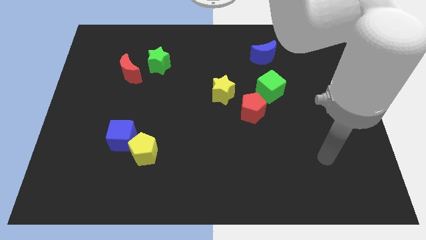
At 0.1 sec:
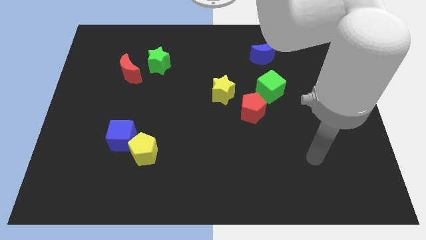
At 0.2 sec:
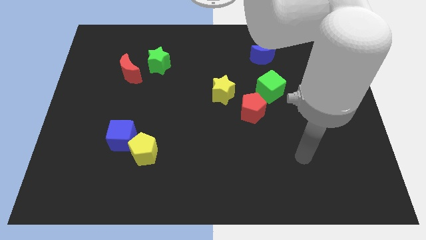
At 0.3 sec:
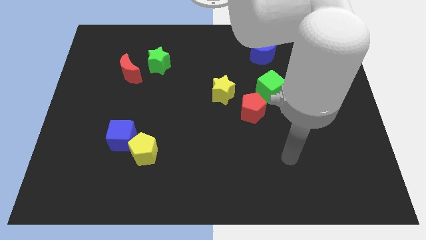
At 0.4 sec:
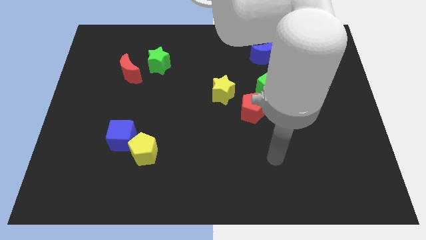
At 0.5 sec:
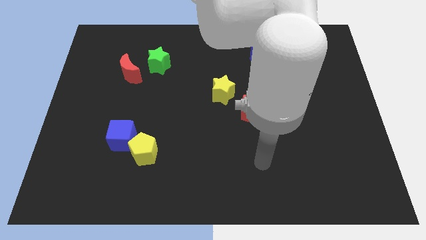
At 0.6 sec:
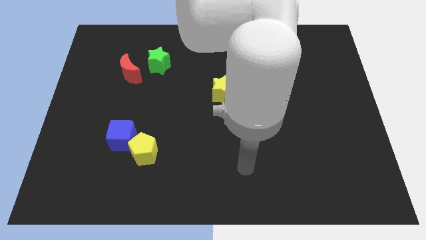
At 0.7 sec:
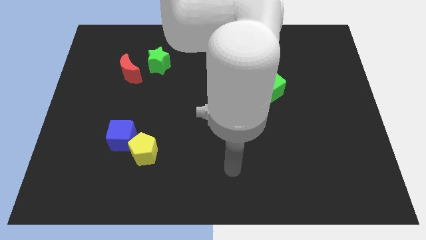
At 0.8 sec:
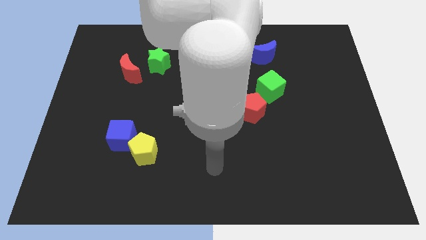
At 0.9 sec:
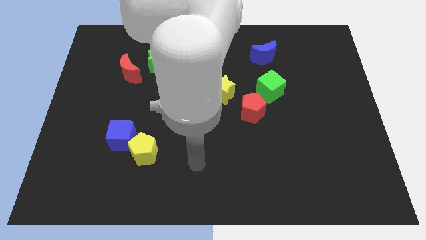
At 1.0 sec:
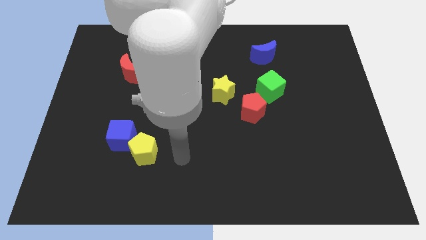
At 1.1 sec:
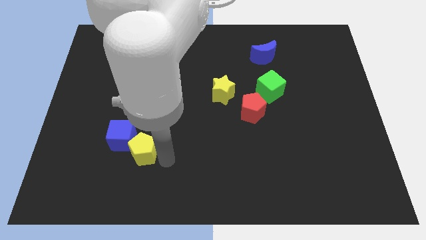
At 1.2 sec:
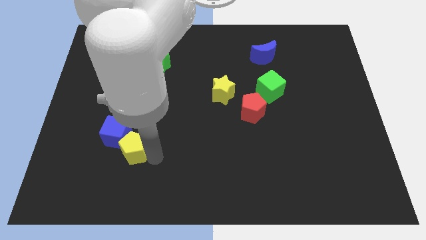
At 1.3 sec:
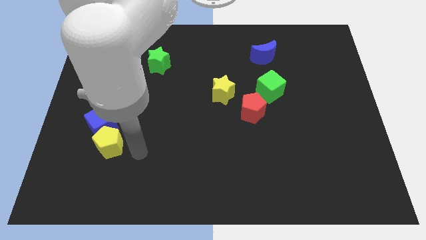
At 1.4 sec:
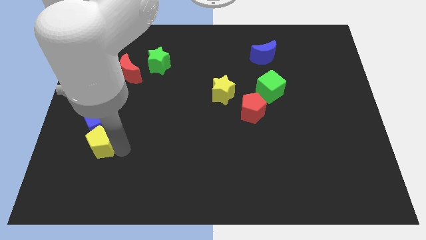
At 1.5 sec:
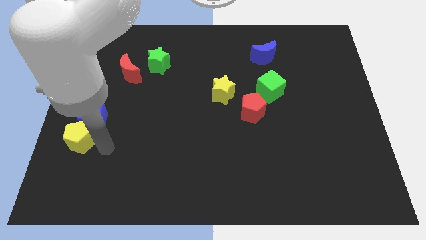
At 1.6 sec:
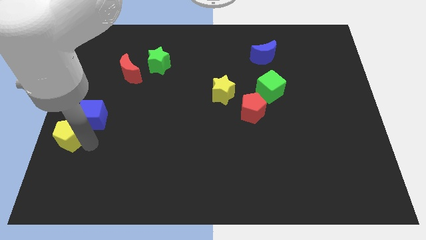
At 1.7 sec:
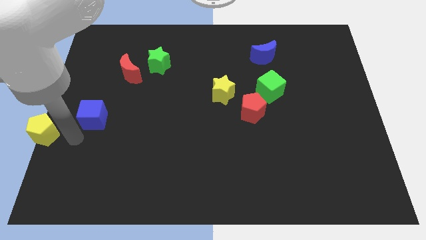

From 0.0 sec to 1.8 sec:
separate the blue cube from the yellow pentagon

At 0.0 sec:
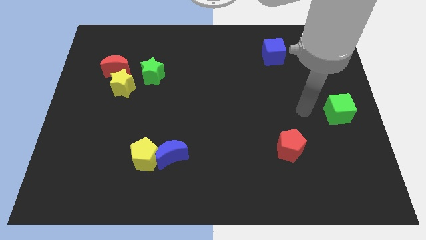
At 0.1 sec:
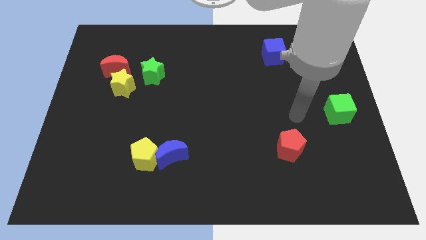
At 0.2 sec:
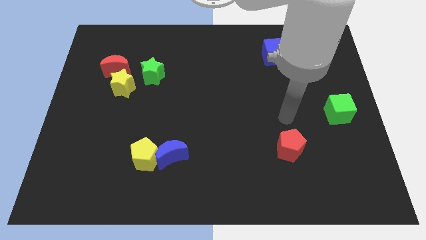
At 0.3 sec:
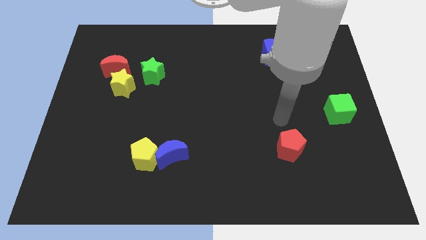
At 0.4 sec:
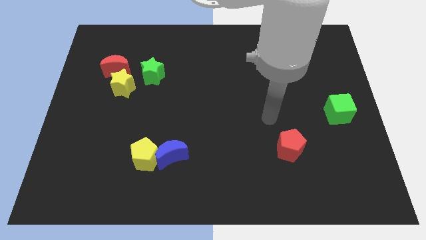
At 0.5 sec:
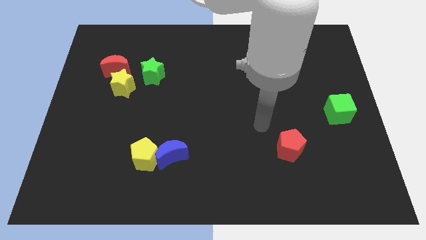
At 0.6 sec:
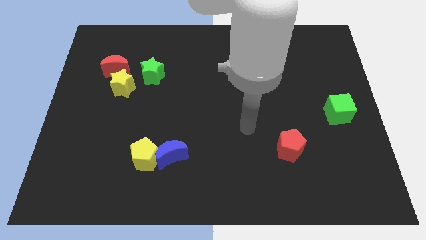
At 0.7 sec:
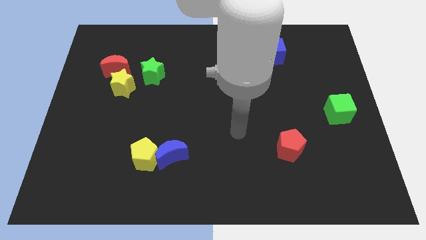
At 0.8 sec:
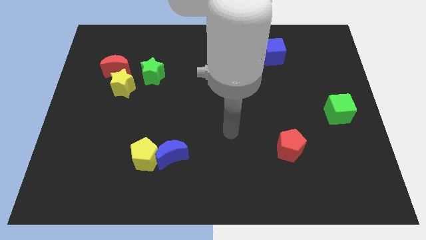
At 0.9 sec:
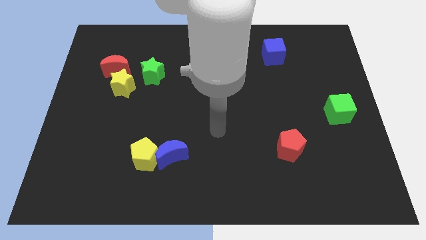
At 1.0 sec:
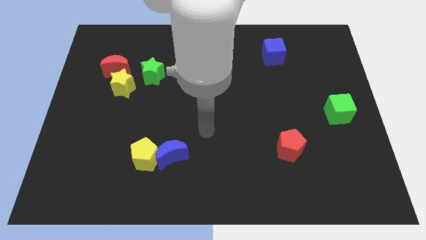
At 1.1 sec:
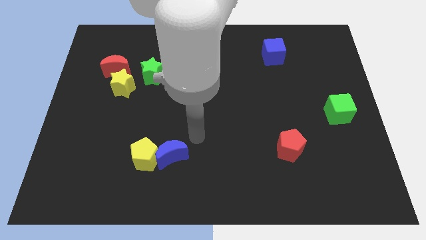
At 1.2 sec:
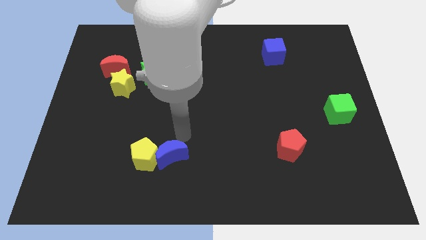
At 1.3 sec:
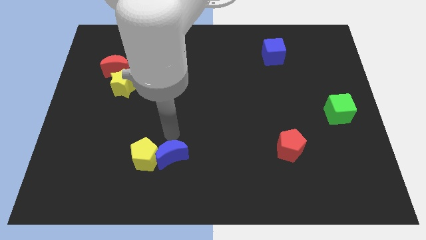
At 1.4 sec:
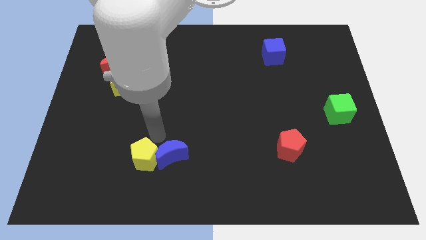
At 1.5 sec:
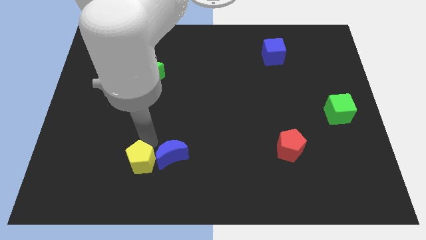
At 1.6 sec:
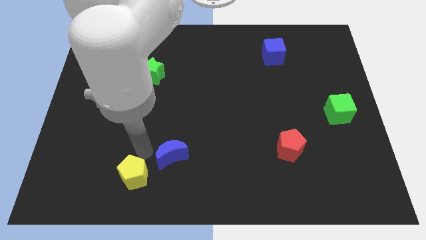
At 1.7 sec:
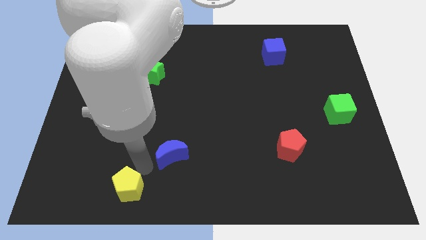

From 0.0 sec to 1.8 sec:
move the blue moon away from the yellow pentagon

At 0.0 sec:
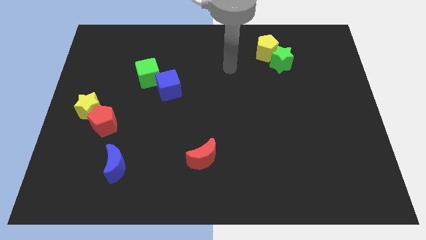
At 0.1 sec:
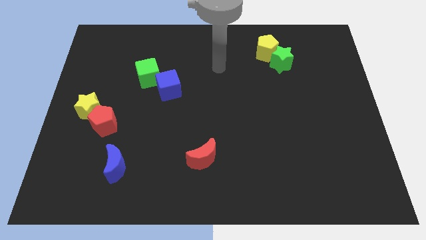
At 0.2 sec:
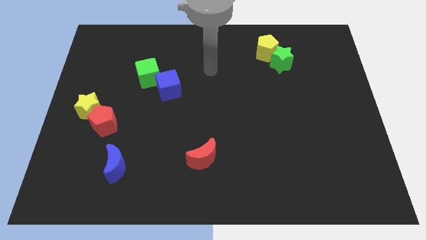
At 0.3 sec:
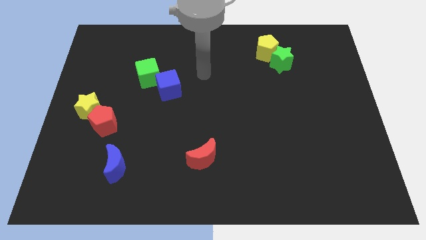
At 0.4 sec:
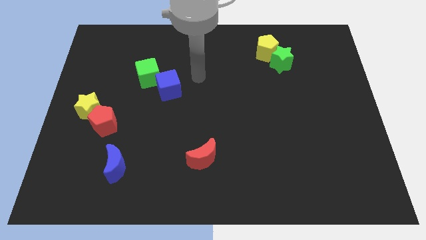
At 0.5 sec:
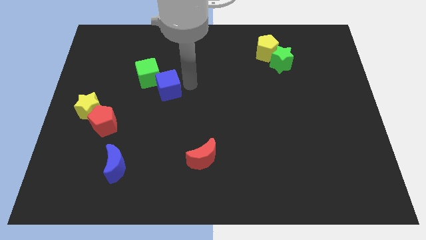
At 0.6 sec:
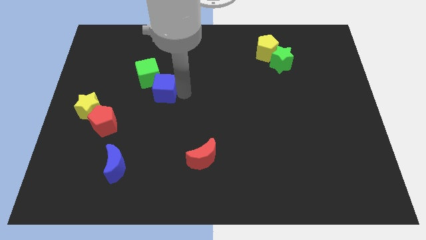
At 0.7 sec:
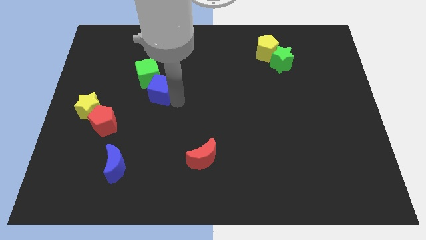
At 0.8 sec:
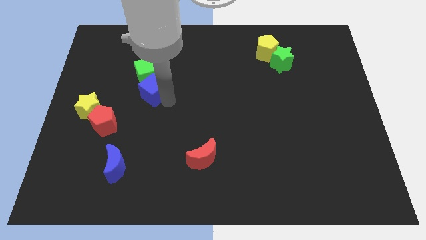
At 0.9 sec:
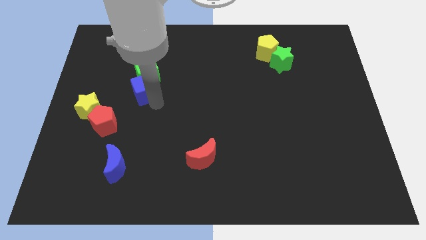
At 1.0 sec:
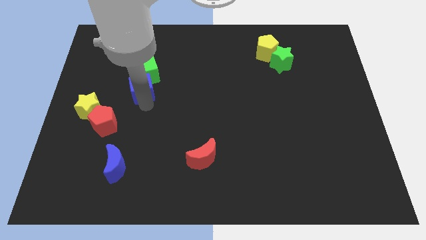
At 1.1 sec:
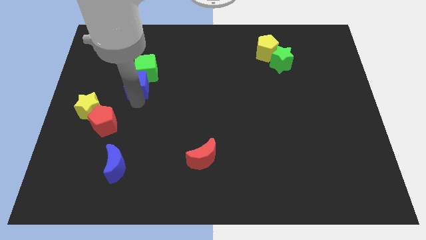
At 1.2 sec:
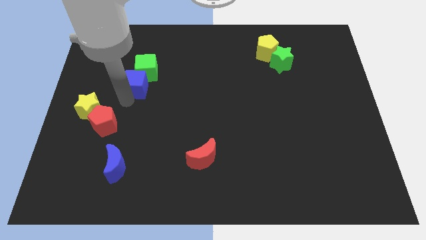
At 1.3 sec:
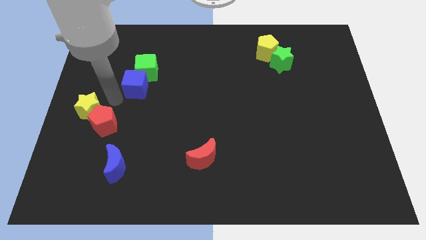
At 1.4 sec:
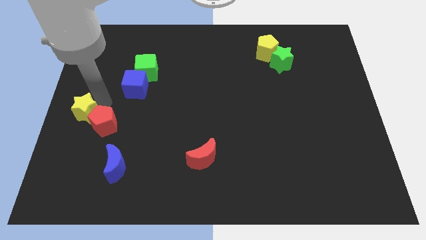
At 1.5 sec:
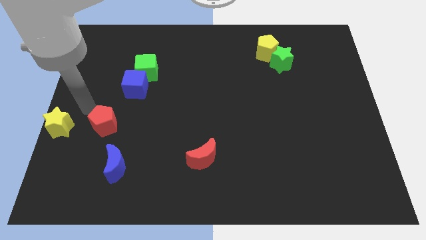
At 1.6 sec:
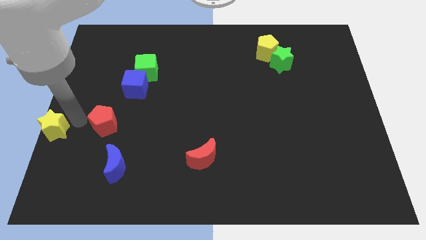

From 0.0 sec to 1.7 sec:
separate the red pentagon from the yellow star

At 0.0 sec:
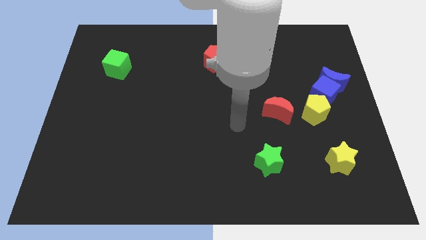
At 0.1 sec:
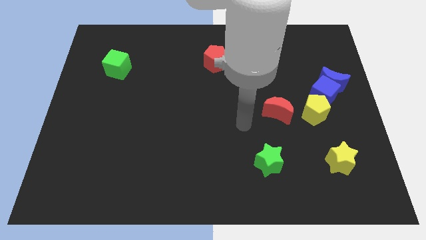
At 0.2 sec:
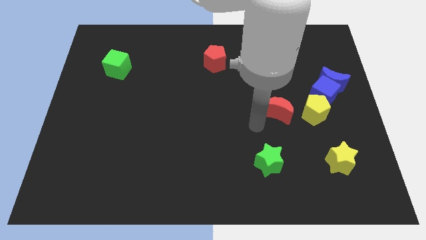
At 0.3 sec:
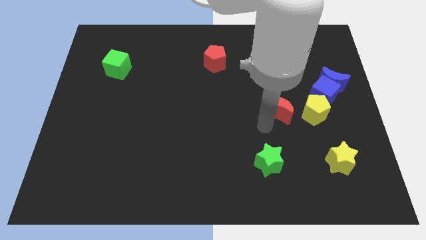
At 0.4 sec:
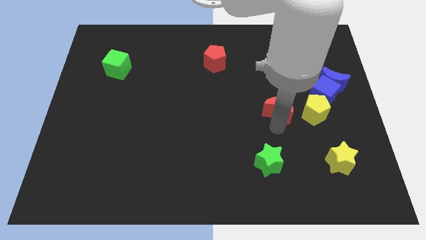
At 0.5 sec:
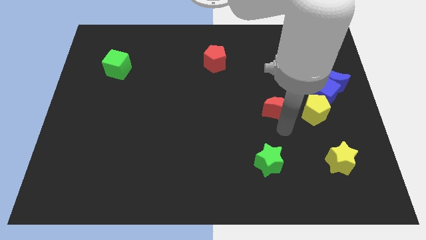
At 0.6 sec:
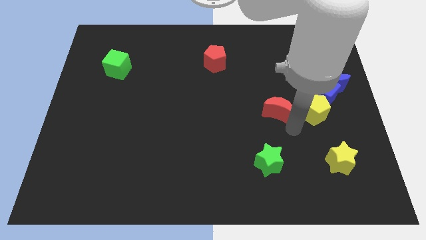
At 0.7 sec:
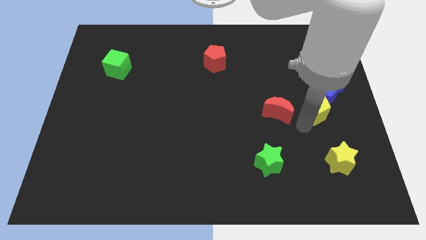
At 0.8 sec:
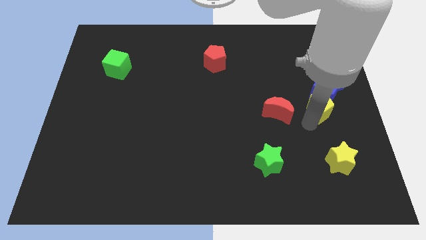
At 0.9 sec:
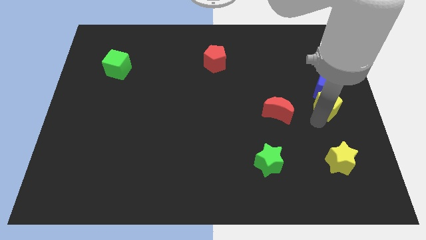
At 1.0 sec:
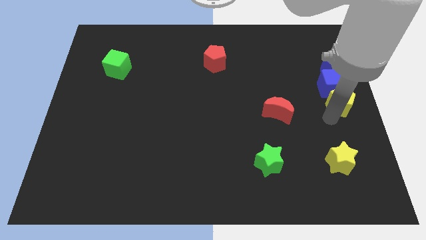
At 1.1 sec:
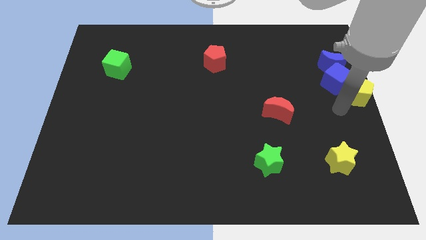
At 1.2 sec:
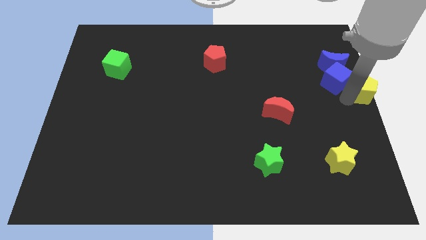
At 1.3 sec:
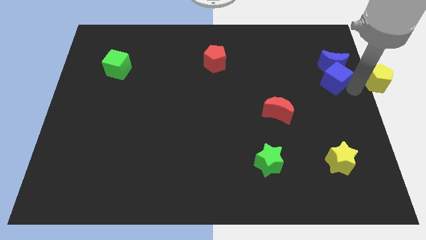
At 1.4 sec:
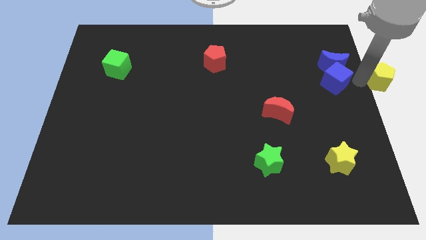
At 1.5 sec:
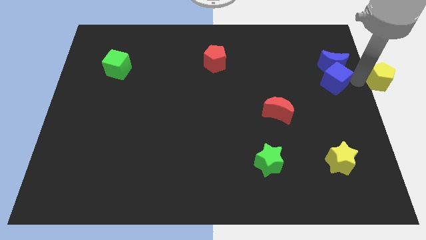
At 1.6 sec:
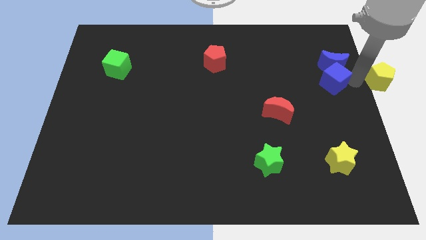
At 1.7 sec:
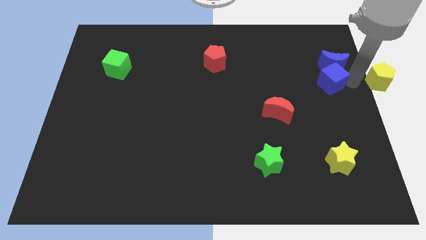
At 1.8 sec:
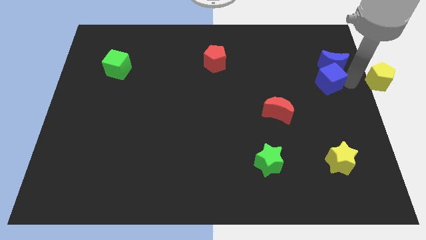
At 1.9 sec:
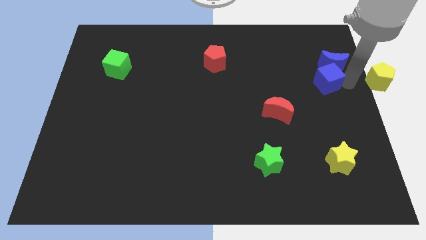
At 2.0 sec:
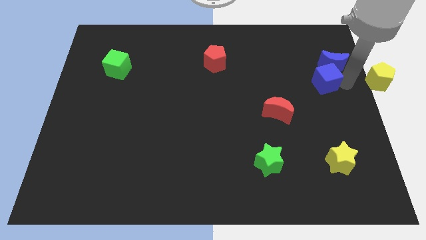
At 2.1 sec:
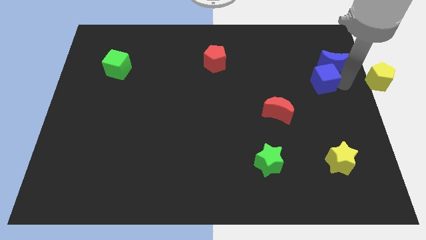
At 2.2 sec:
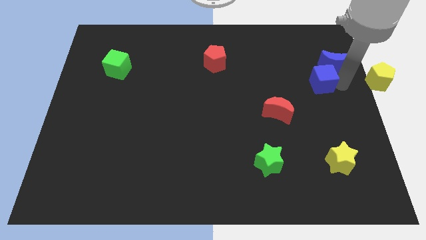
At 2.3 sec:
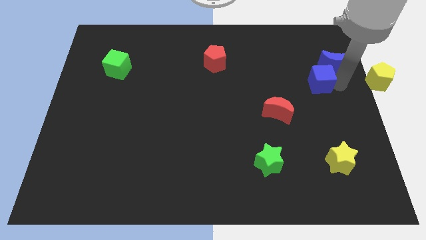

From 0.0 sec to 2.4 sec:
move the blue cube away from the blue moon and yellow pentagon

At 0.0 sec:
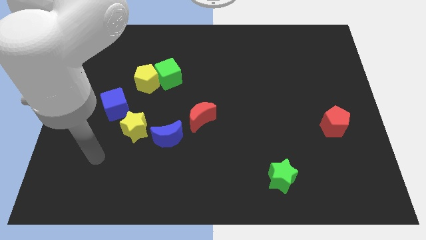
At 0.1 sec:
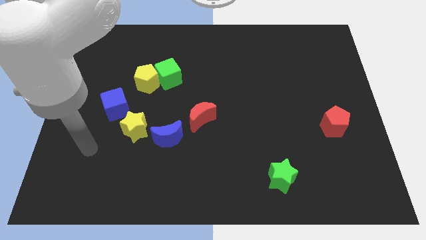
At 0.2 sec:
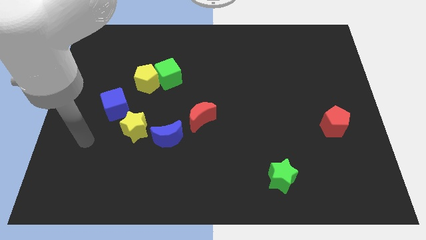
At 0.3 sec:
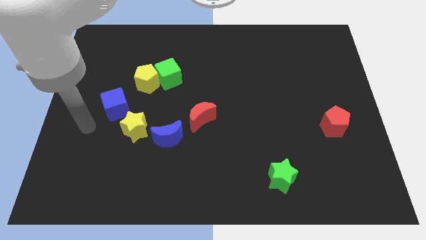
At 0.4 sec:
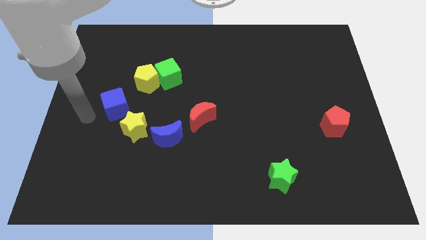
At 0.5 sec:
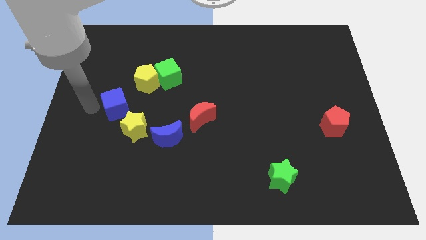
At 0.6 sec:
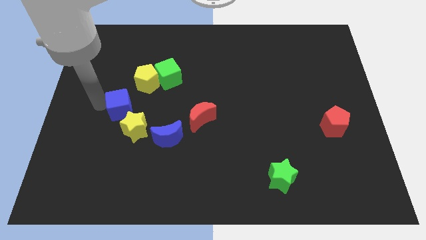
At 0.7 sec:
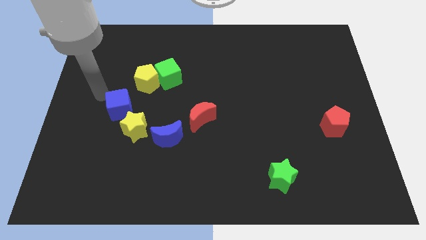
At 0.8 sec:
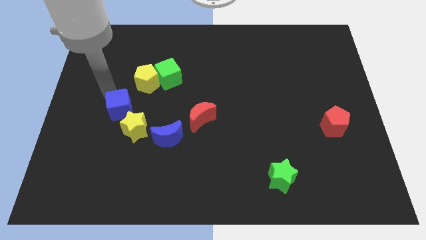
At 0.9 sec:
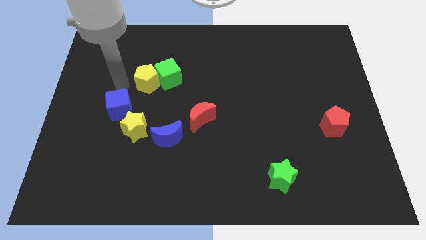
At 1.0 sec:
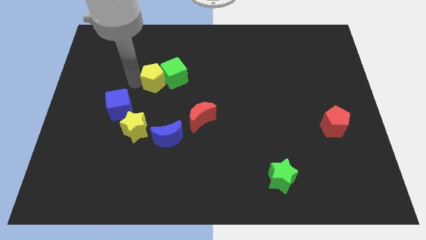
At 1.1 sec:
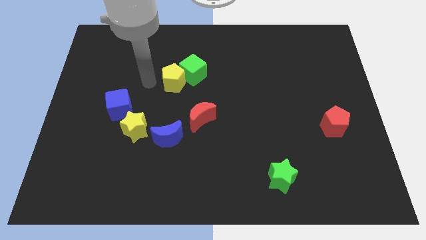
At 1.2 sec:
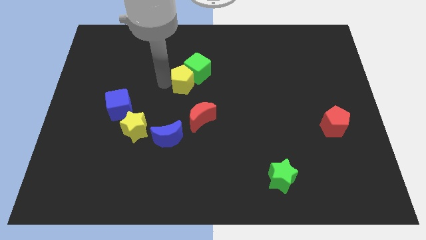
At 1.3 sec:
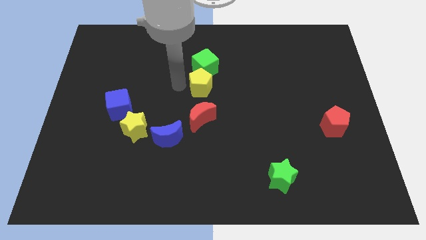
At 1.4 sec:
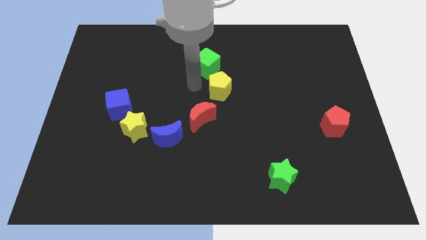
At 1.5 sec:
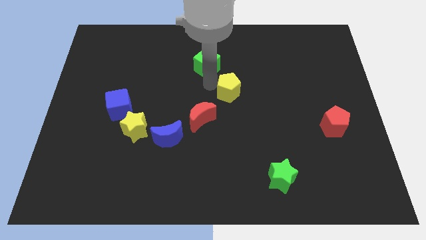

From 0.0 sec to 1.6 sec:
move the green cube away from the yellow pentagon
